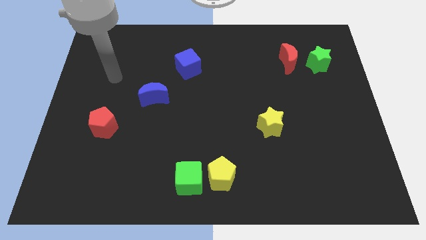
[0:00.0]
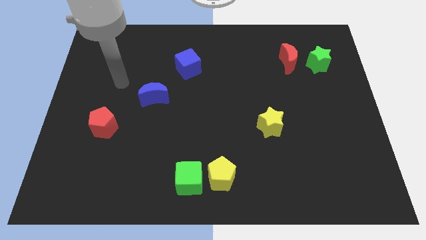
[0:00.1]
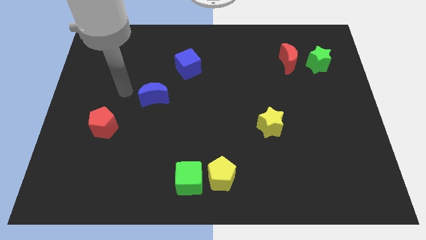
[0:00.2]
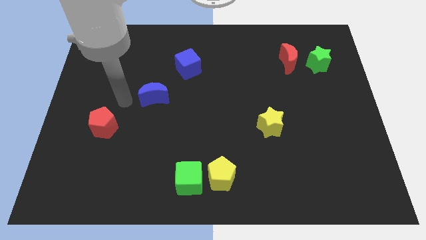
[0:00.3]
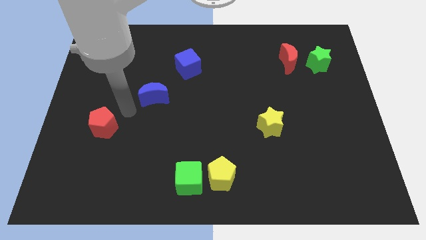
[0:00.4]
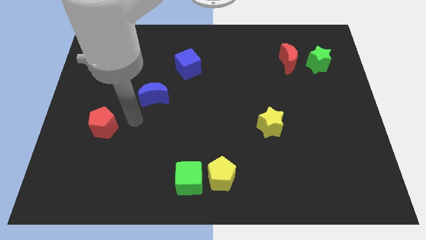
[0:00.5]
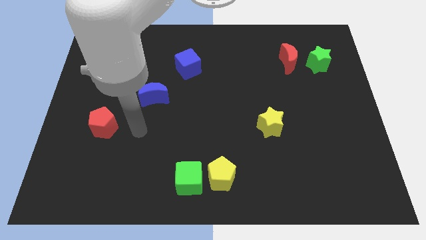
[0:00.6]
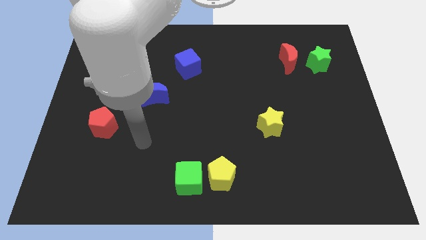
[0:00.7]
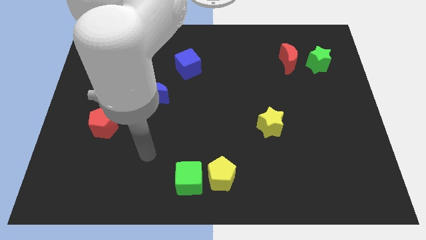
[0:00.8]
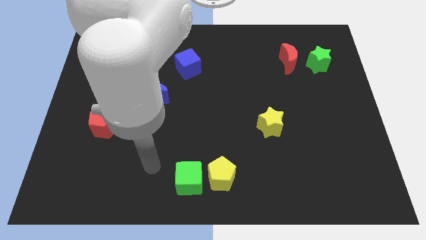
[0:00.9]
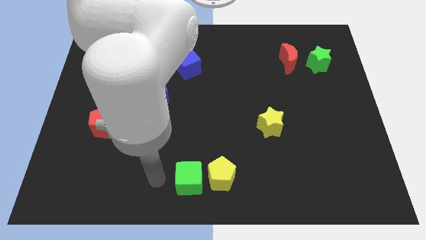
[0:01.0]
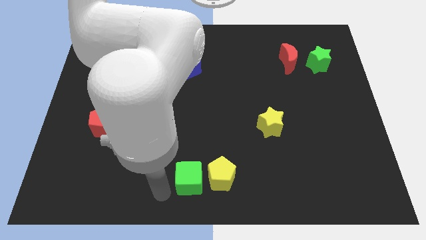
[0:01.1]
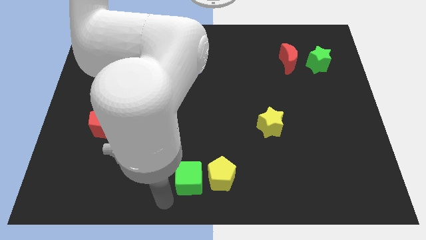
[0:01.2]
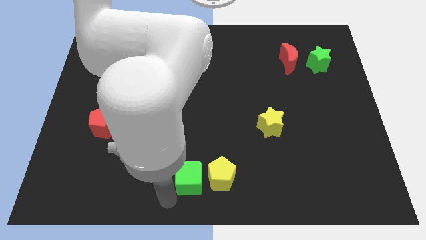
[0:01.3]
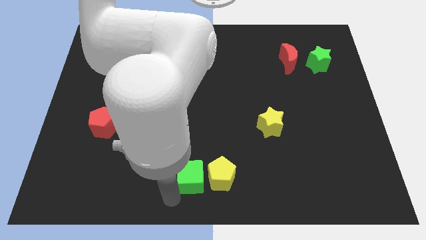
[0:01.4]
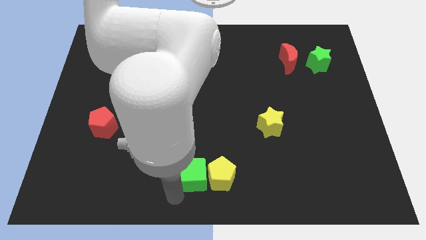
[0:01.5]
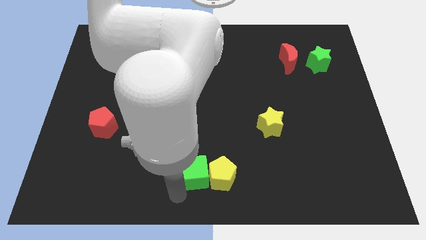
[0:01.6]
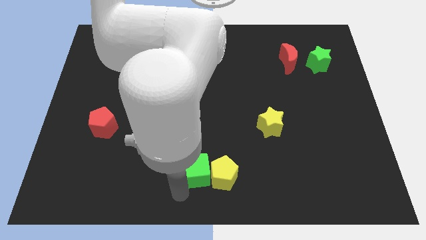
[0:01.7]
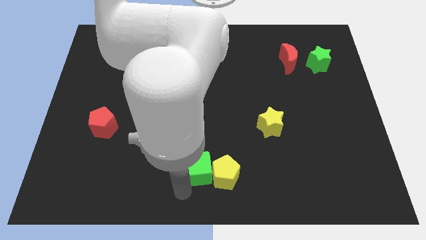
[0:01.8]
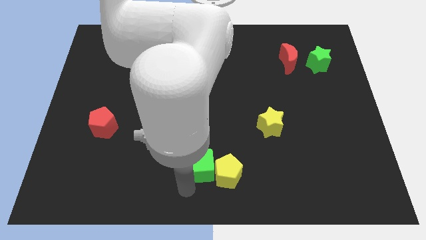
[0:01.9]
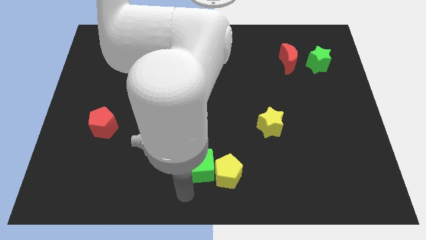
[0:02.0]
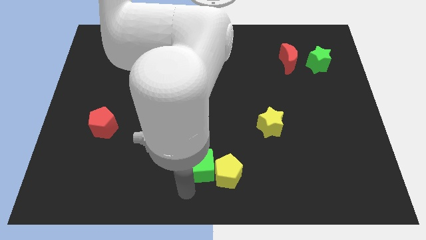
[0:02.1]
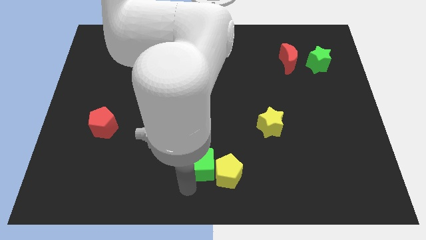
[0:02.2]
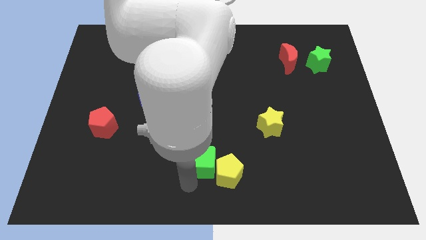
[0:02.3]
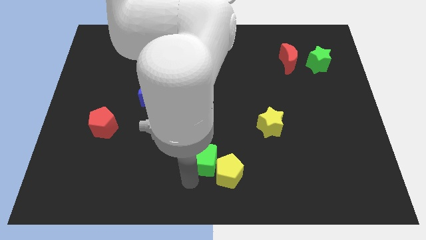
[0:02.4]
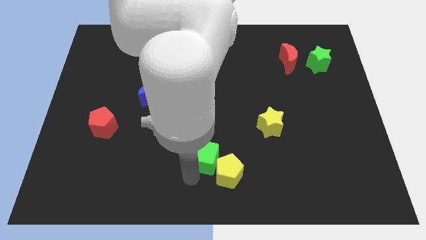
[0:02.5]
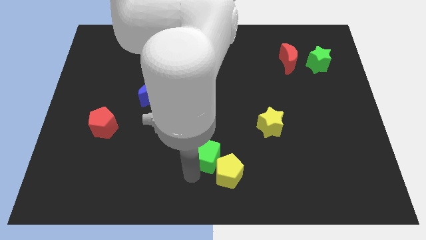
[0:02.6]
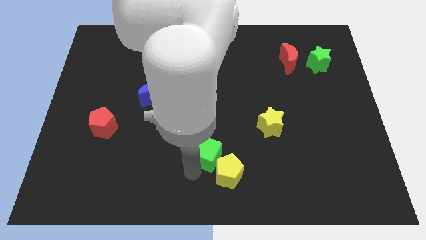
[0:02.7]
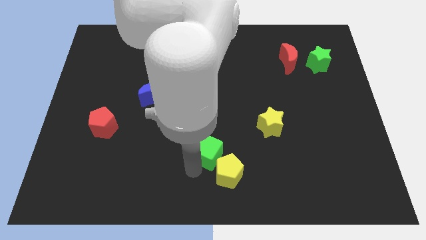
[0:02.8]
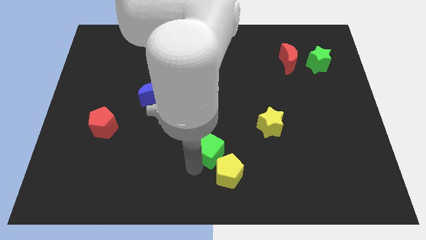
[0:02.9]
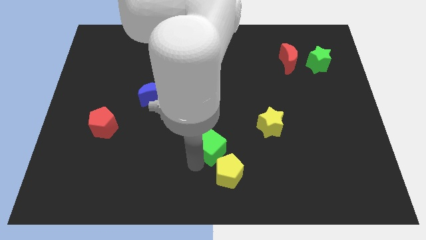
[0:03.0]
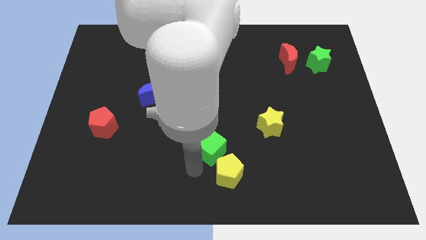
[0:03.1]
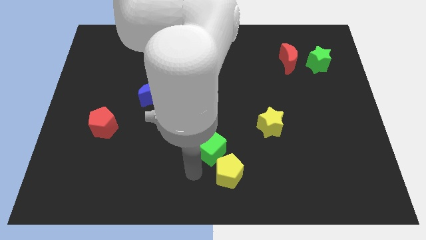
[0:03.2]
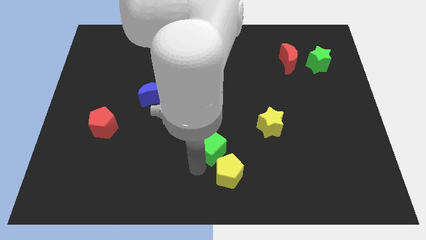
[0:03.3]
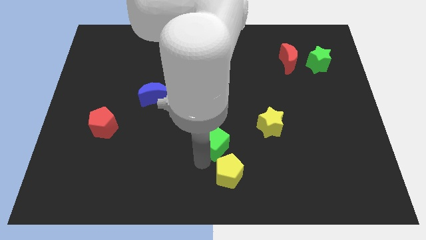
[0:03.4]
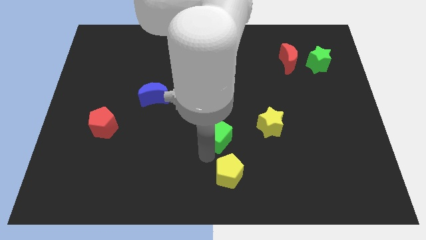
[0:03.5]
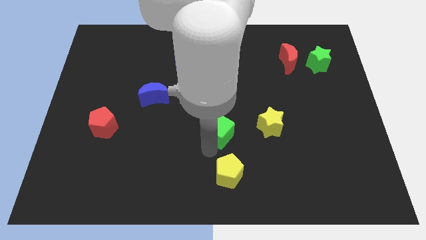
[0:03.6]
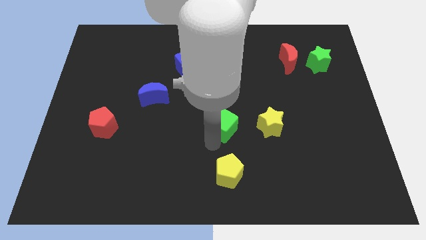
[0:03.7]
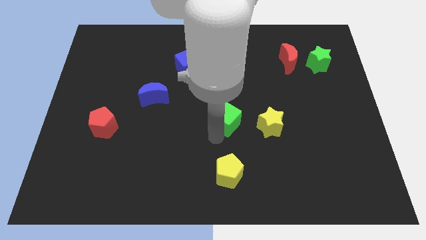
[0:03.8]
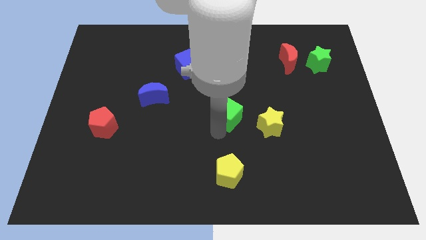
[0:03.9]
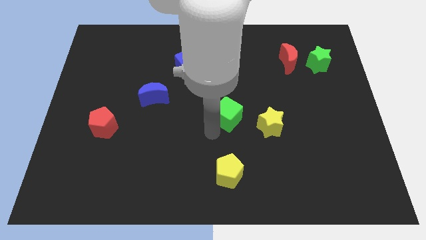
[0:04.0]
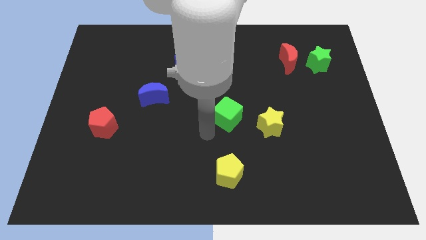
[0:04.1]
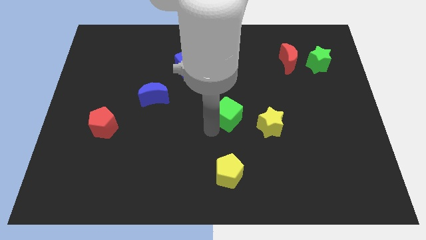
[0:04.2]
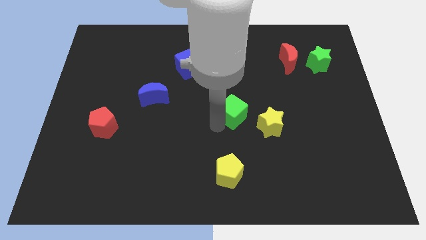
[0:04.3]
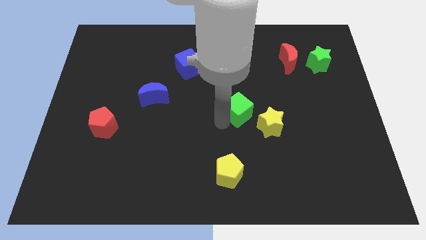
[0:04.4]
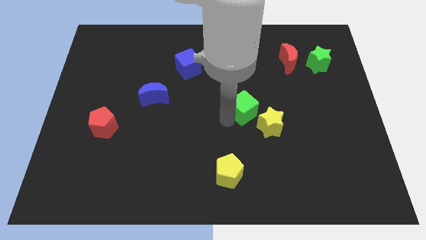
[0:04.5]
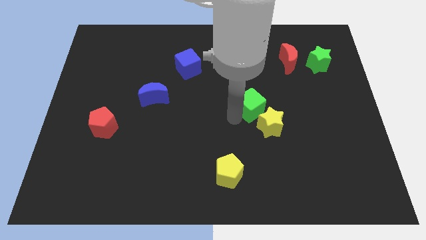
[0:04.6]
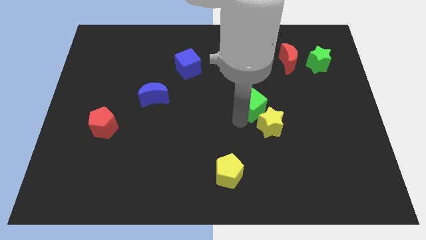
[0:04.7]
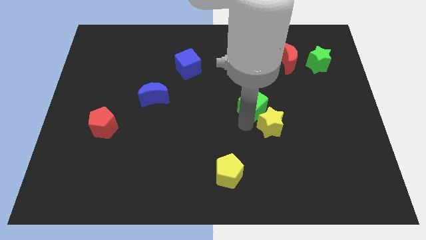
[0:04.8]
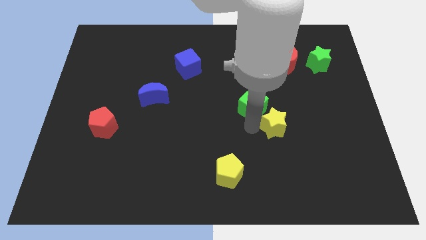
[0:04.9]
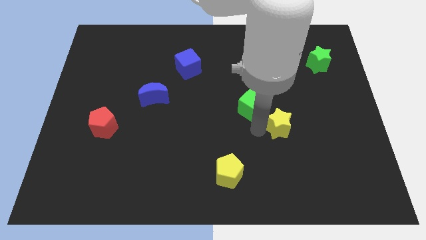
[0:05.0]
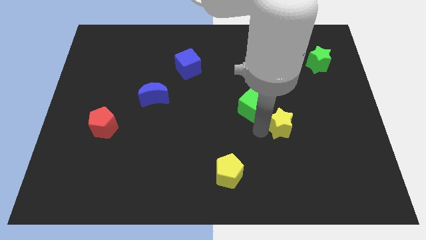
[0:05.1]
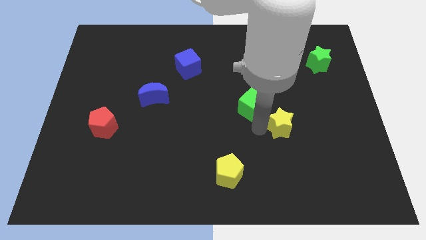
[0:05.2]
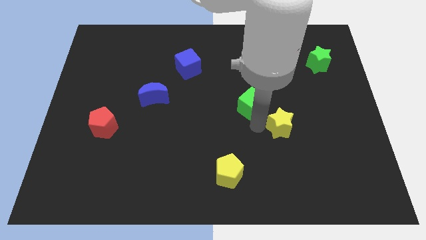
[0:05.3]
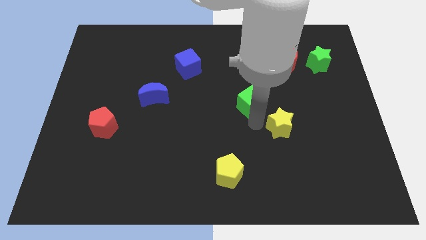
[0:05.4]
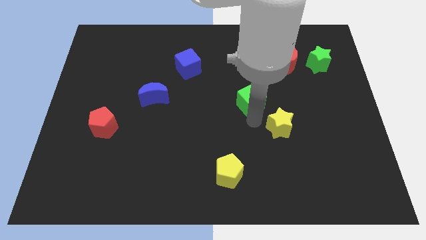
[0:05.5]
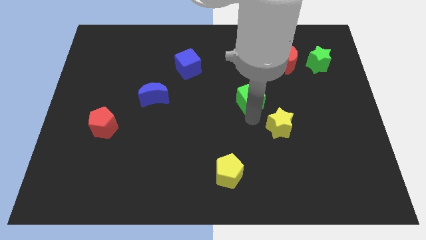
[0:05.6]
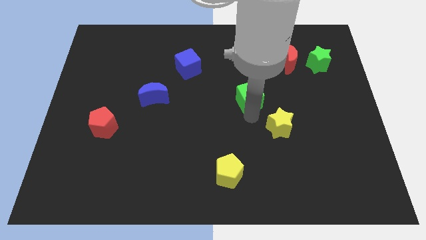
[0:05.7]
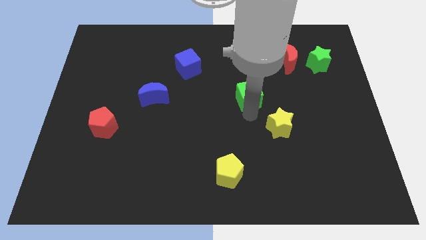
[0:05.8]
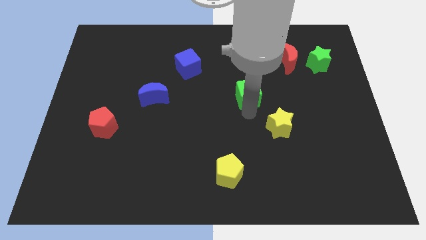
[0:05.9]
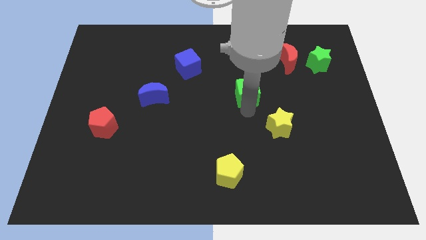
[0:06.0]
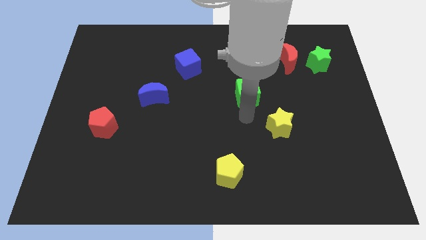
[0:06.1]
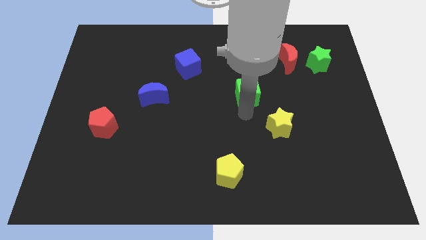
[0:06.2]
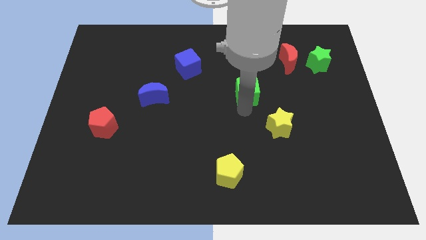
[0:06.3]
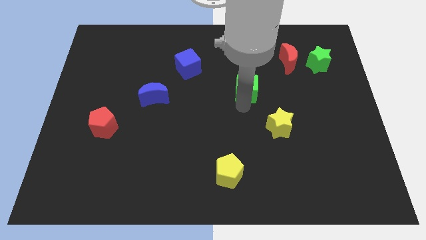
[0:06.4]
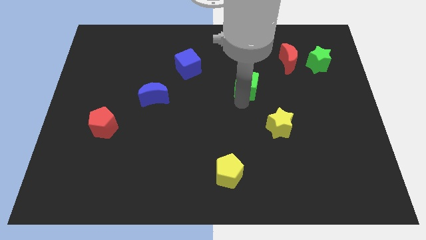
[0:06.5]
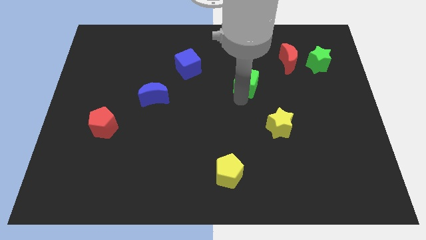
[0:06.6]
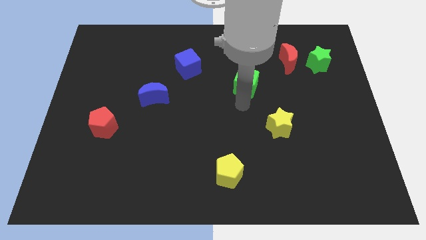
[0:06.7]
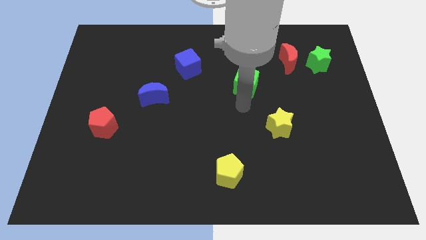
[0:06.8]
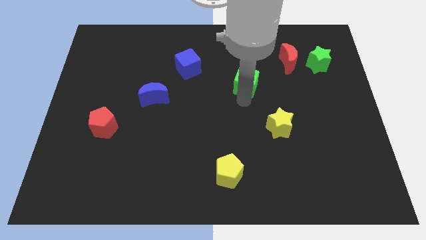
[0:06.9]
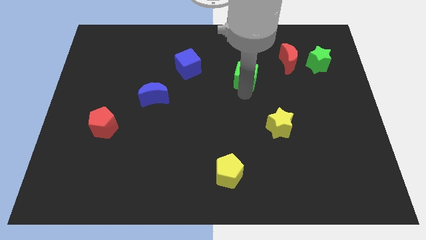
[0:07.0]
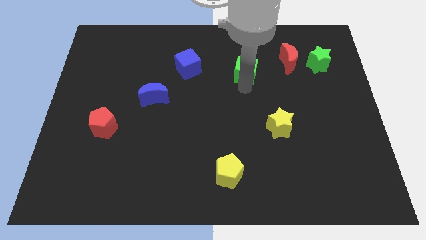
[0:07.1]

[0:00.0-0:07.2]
slide the green cube left of the red moon

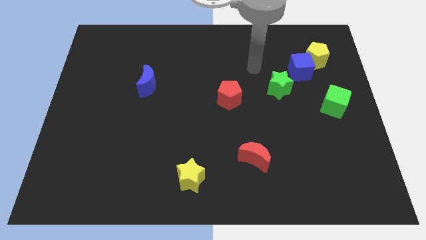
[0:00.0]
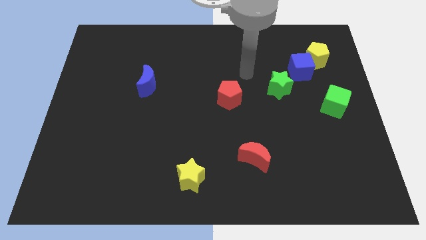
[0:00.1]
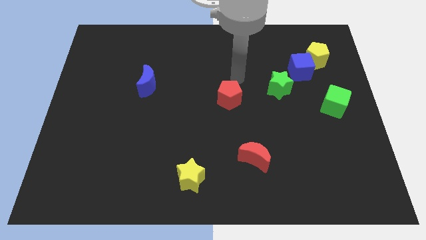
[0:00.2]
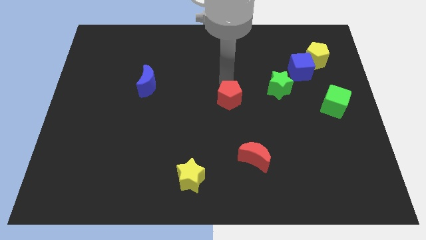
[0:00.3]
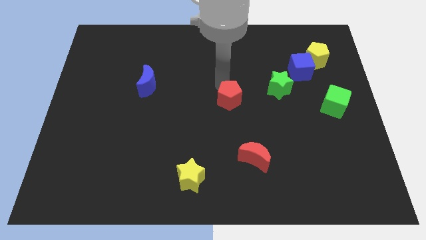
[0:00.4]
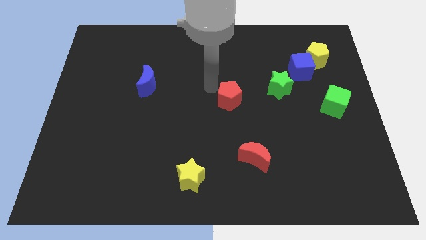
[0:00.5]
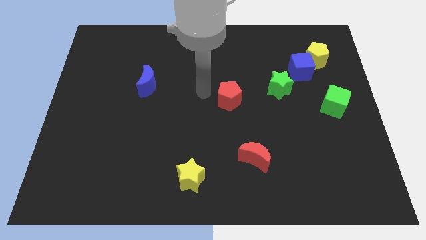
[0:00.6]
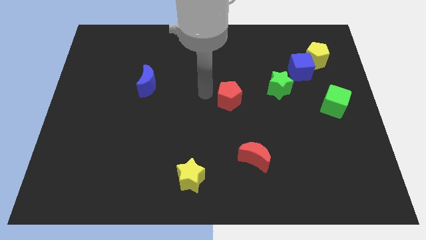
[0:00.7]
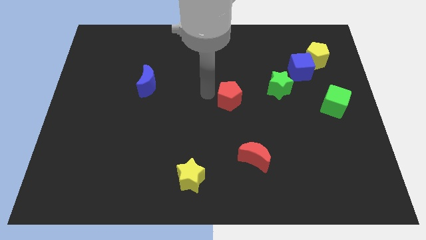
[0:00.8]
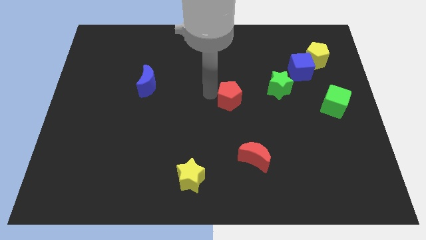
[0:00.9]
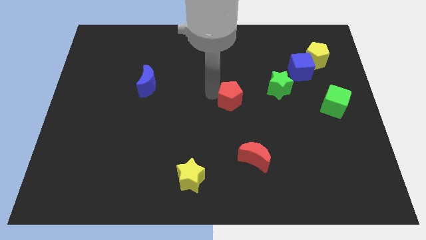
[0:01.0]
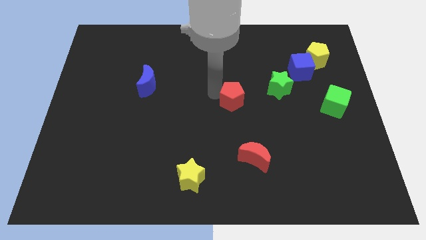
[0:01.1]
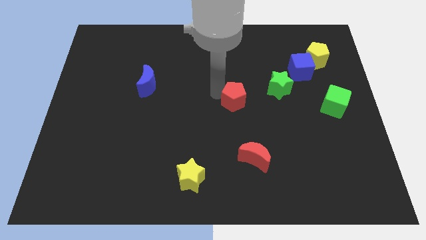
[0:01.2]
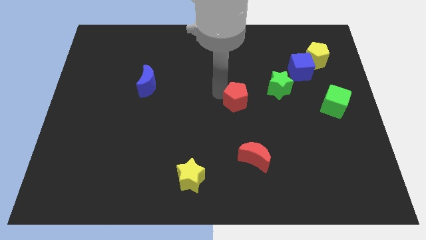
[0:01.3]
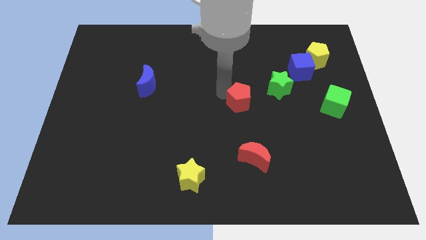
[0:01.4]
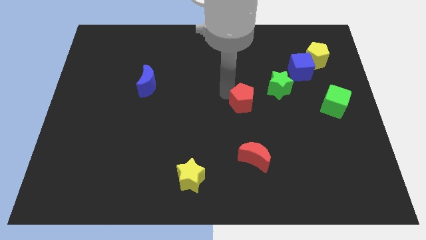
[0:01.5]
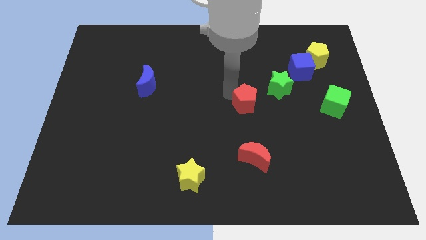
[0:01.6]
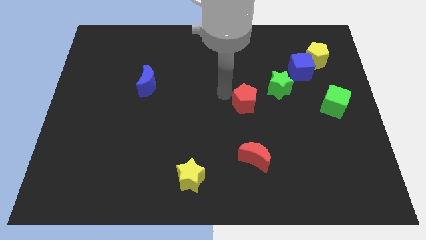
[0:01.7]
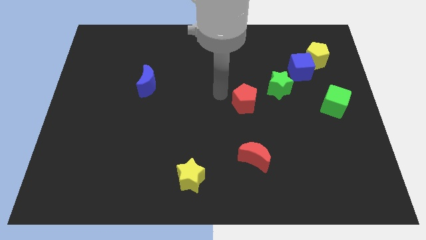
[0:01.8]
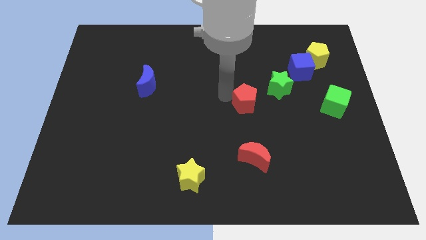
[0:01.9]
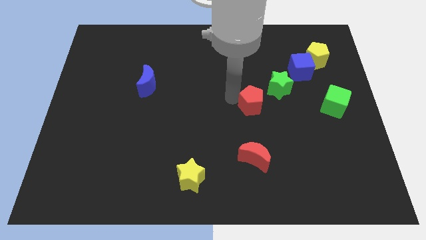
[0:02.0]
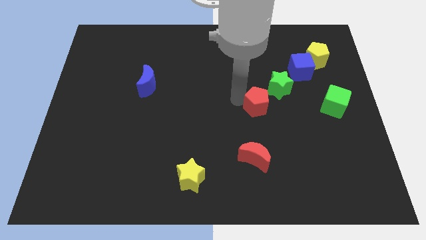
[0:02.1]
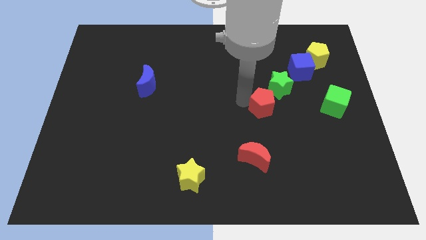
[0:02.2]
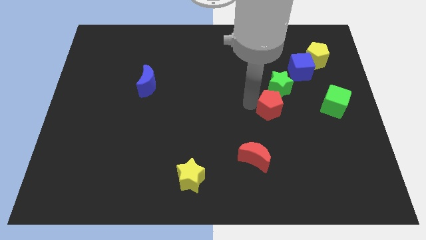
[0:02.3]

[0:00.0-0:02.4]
push the red pentagon left of the green cube
